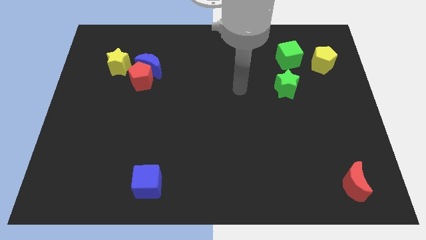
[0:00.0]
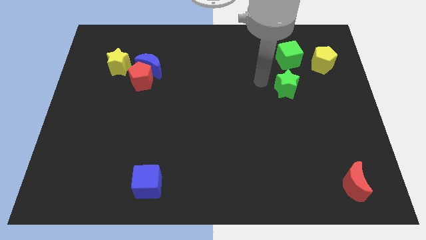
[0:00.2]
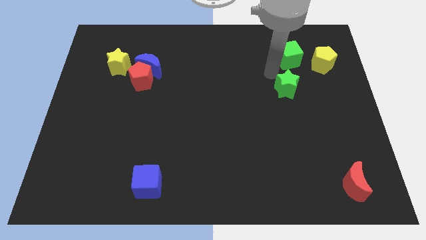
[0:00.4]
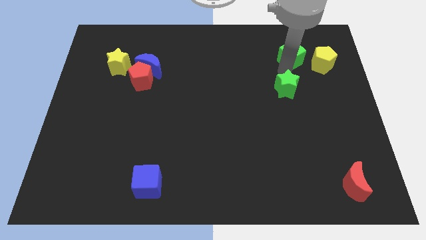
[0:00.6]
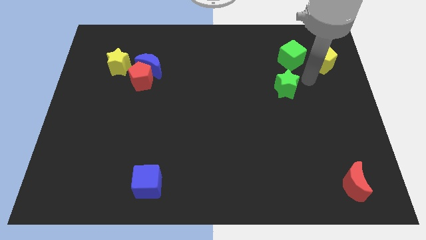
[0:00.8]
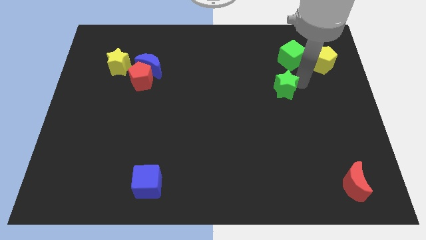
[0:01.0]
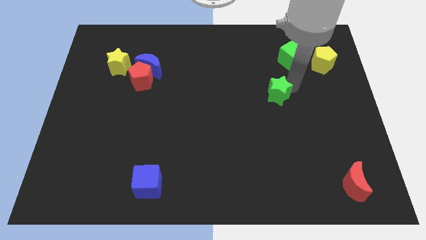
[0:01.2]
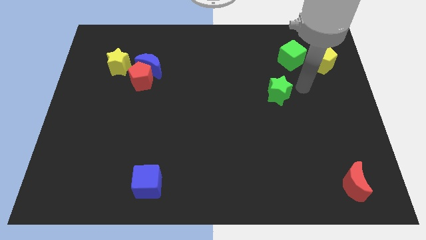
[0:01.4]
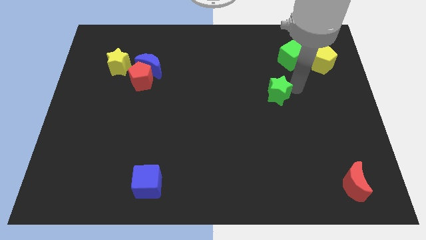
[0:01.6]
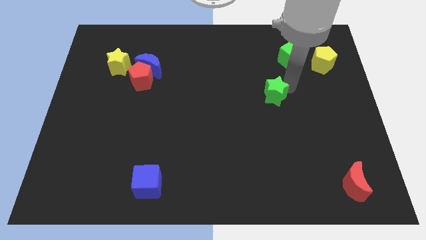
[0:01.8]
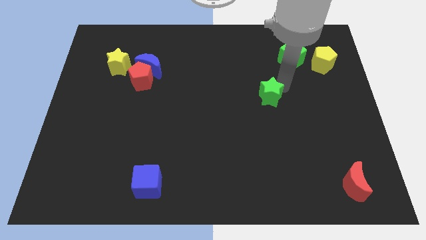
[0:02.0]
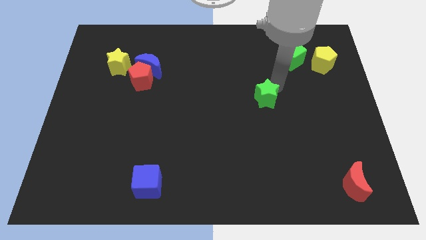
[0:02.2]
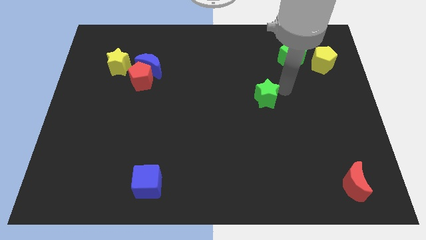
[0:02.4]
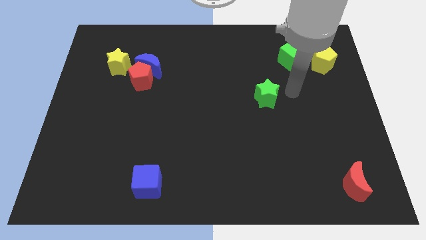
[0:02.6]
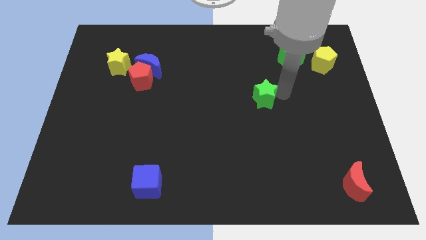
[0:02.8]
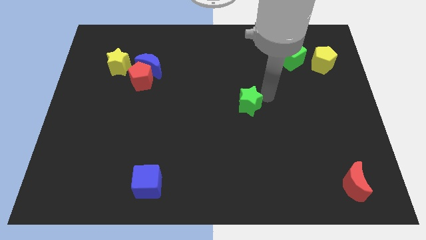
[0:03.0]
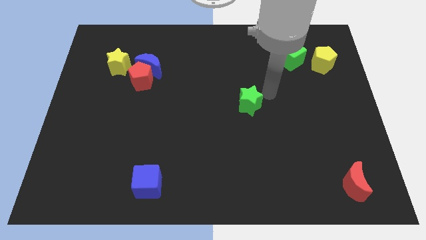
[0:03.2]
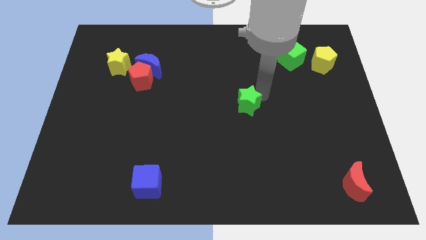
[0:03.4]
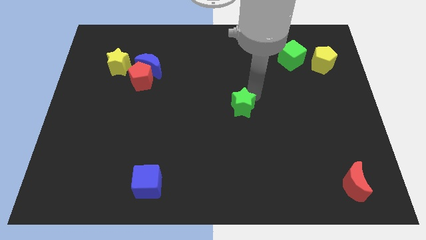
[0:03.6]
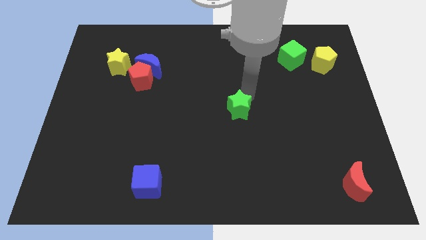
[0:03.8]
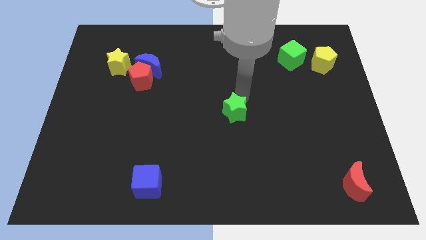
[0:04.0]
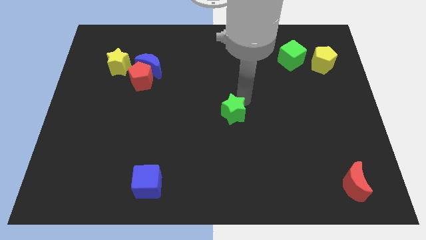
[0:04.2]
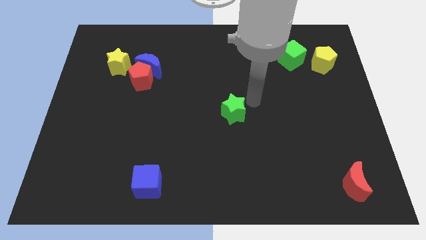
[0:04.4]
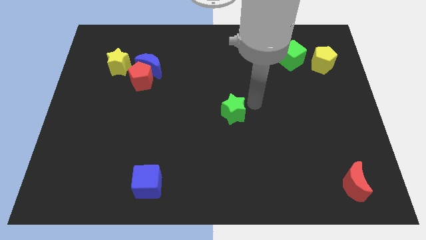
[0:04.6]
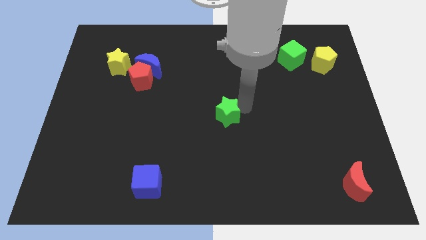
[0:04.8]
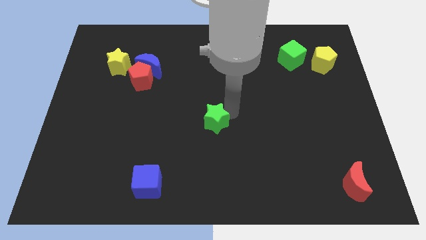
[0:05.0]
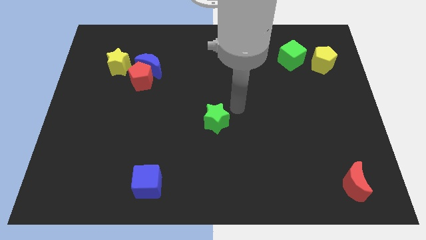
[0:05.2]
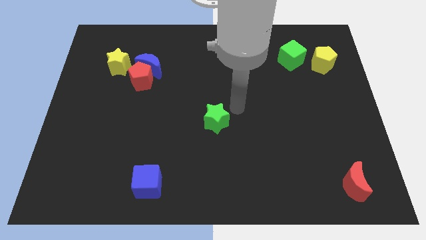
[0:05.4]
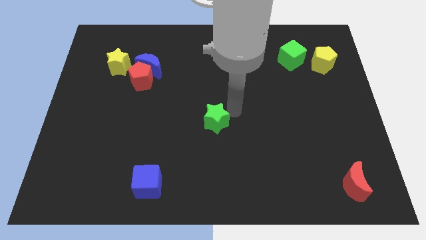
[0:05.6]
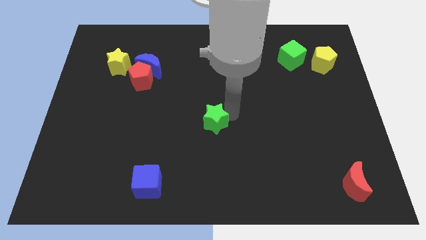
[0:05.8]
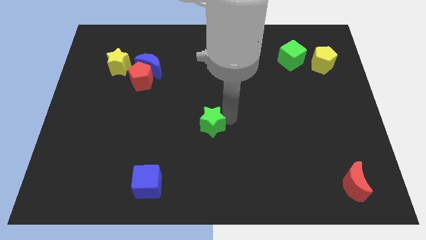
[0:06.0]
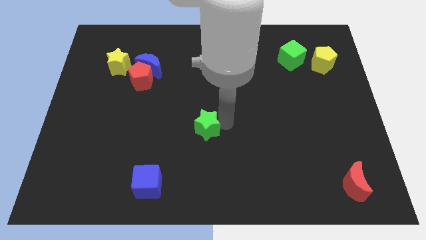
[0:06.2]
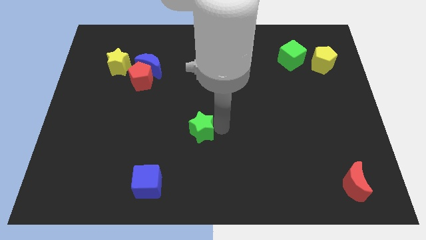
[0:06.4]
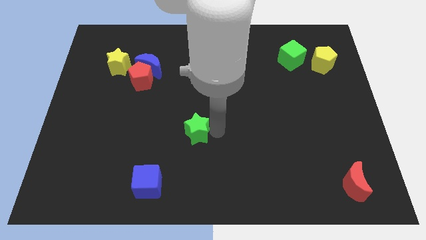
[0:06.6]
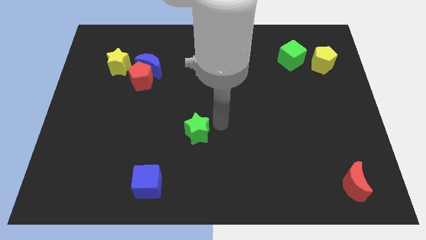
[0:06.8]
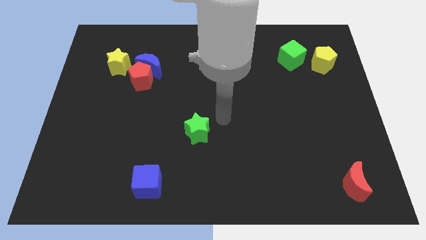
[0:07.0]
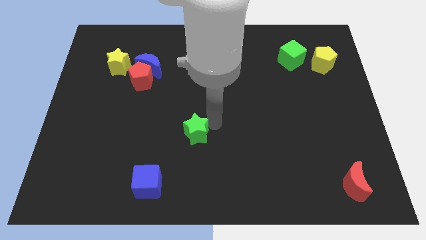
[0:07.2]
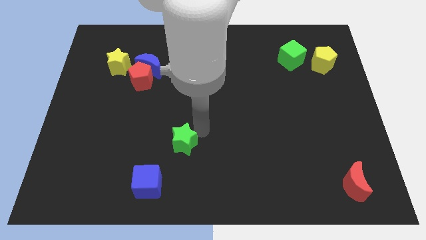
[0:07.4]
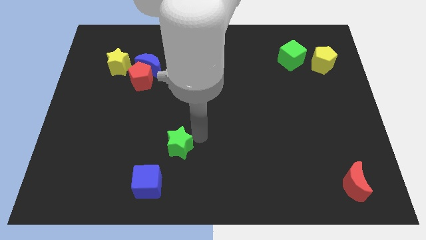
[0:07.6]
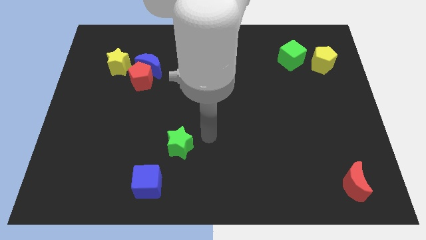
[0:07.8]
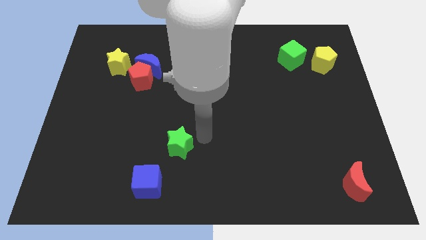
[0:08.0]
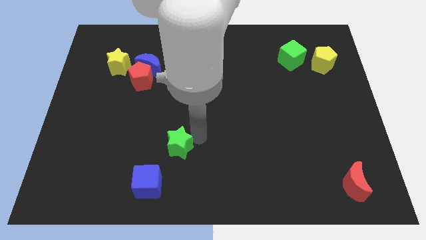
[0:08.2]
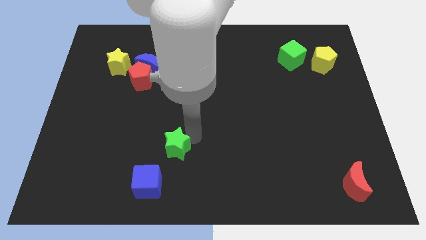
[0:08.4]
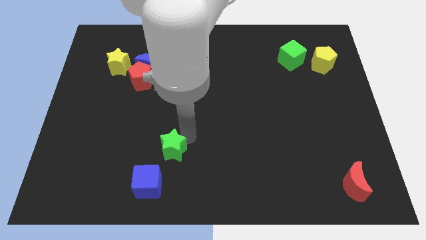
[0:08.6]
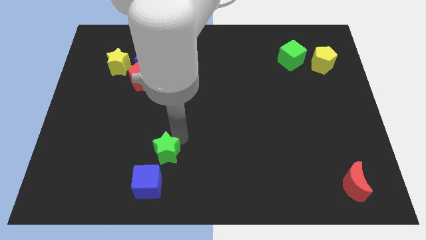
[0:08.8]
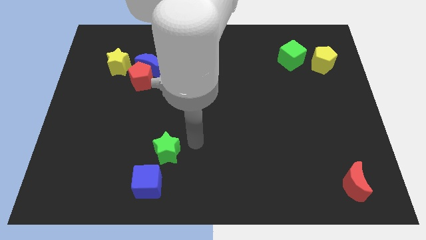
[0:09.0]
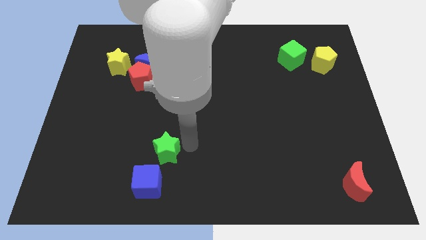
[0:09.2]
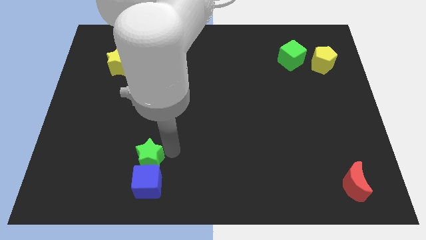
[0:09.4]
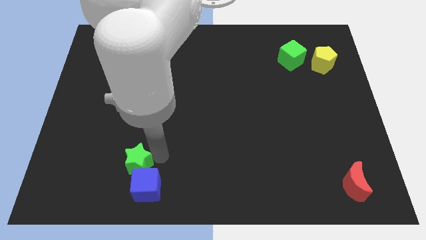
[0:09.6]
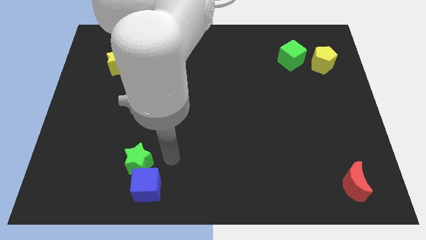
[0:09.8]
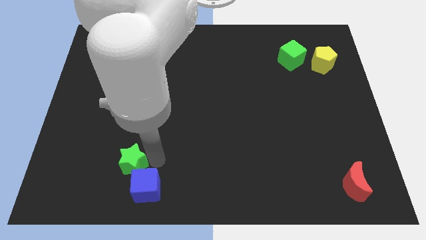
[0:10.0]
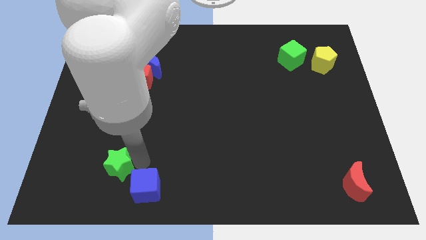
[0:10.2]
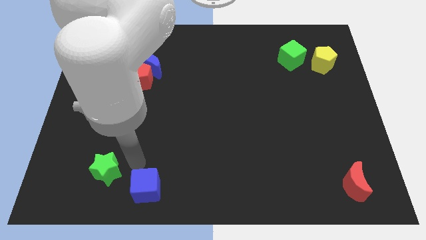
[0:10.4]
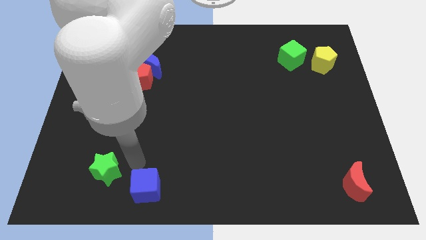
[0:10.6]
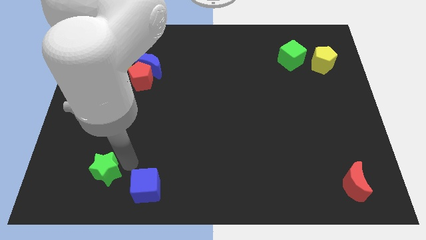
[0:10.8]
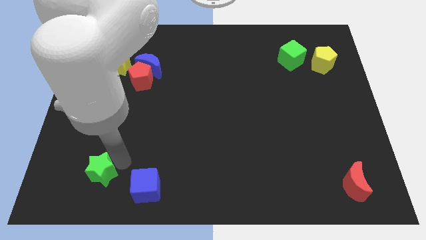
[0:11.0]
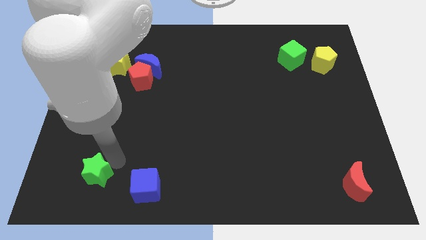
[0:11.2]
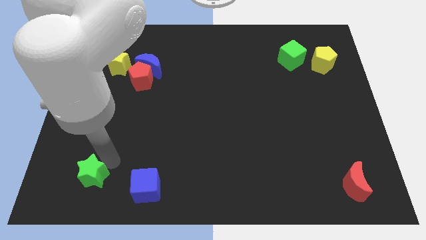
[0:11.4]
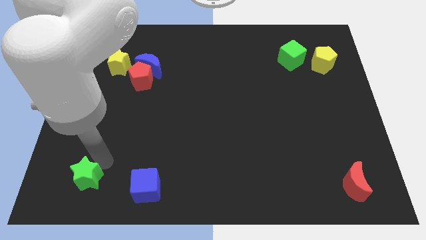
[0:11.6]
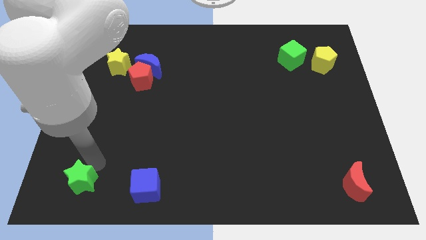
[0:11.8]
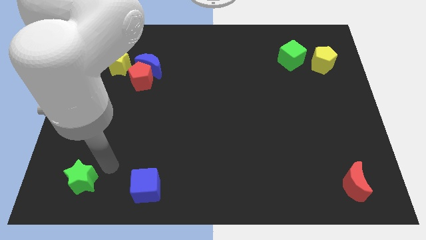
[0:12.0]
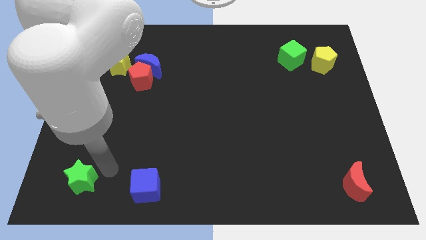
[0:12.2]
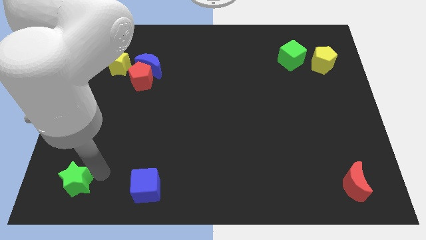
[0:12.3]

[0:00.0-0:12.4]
put the green star to the bottom left
